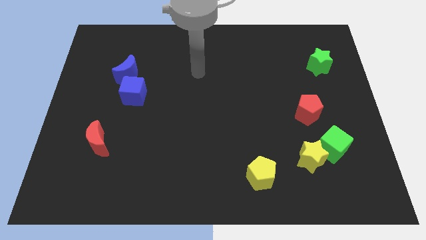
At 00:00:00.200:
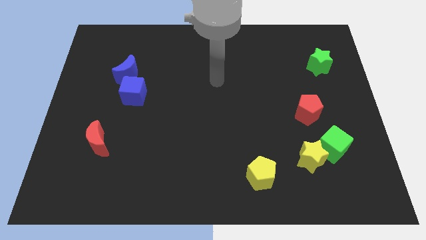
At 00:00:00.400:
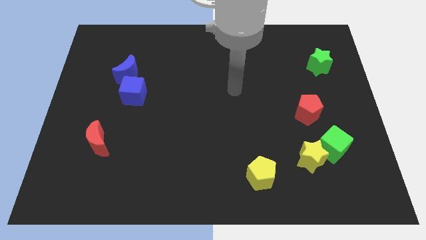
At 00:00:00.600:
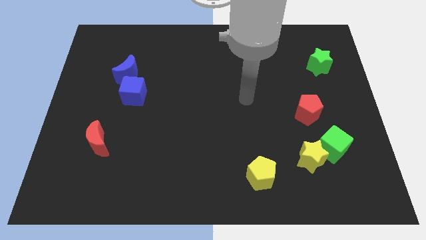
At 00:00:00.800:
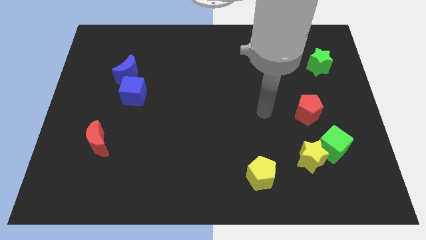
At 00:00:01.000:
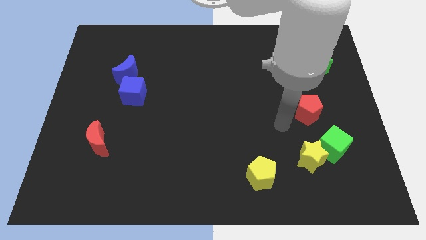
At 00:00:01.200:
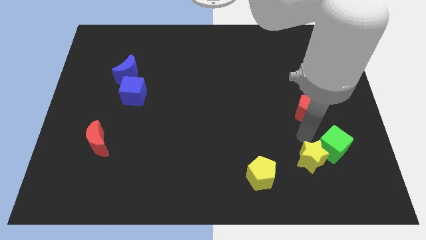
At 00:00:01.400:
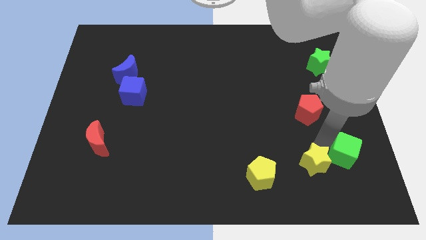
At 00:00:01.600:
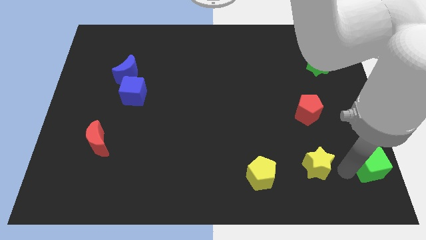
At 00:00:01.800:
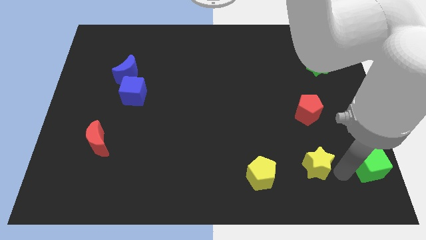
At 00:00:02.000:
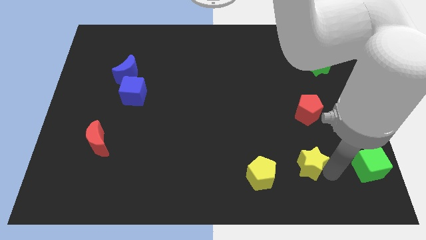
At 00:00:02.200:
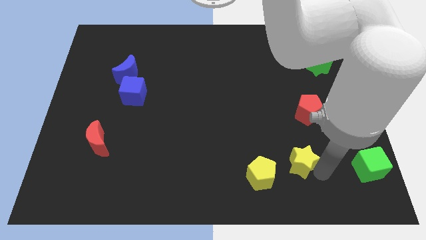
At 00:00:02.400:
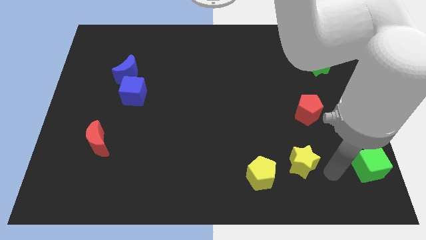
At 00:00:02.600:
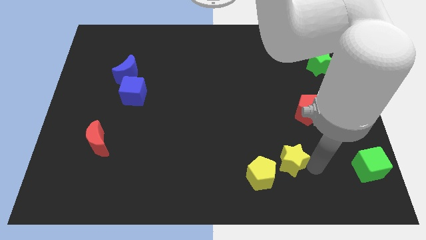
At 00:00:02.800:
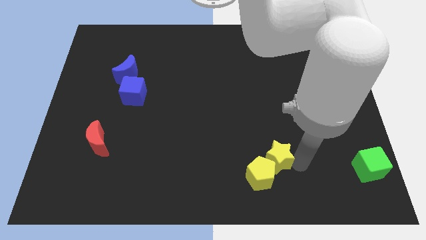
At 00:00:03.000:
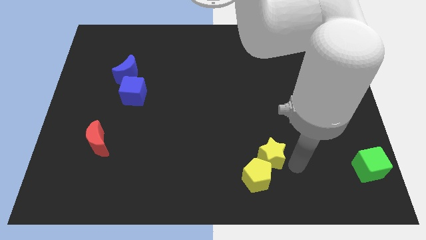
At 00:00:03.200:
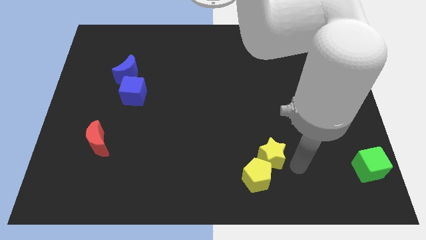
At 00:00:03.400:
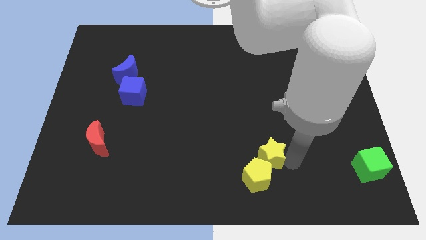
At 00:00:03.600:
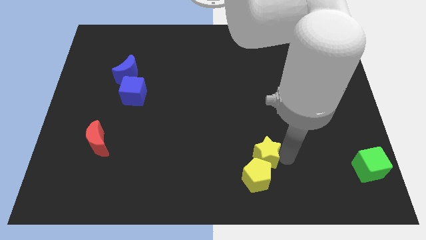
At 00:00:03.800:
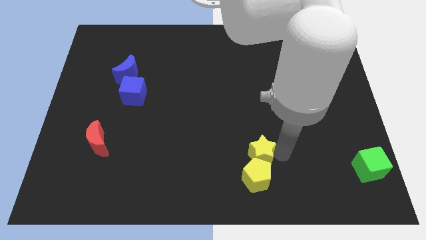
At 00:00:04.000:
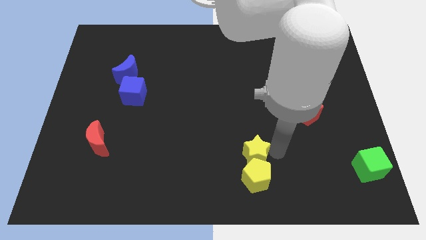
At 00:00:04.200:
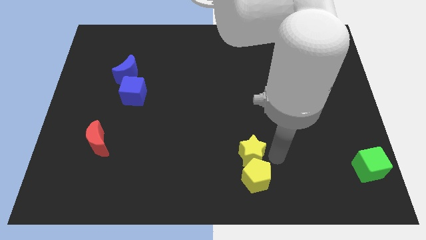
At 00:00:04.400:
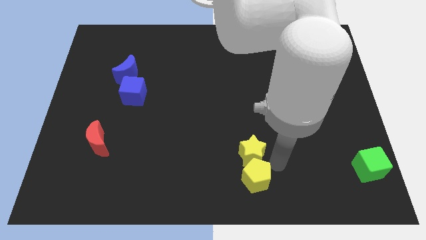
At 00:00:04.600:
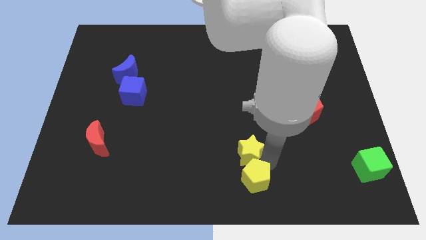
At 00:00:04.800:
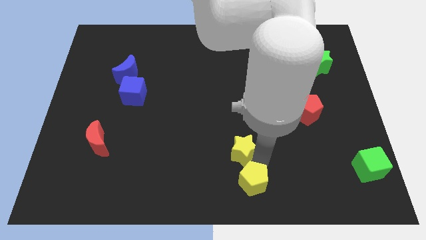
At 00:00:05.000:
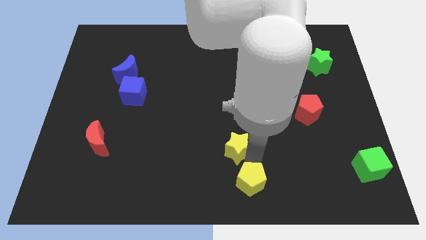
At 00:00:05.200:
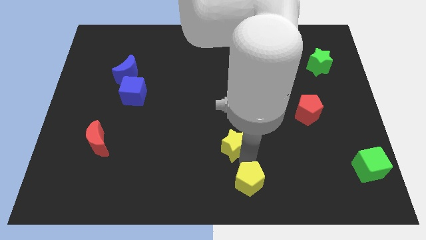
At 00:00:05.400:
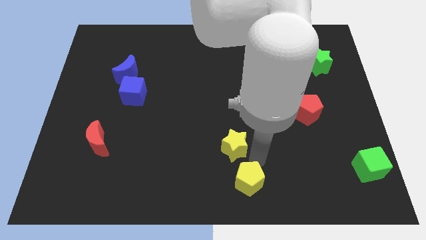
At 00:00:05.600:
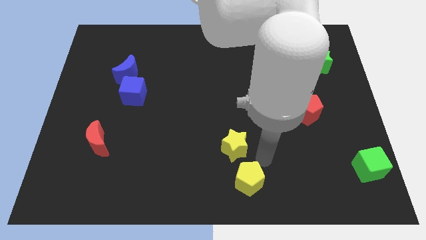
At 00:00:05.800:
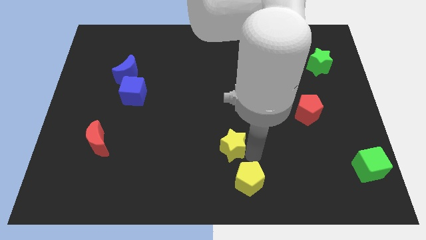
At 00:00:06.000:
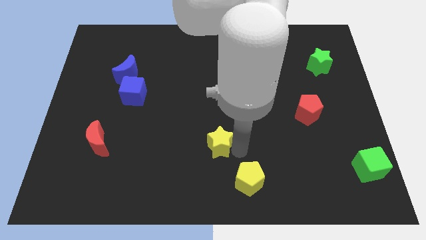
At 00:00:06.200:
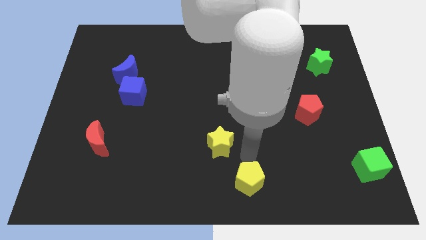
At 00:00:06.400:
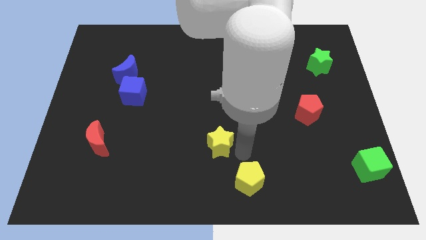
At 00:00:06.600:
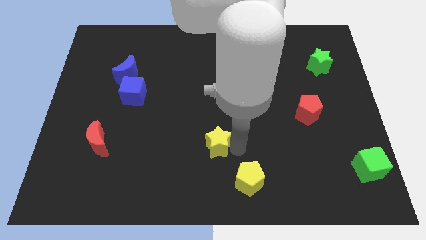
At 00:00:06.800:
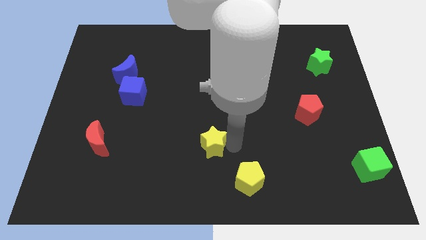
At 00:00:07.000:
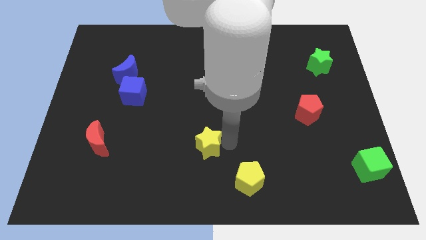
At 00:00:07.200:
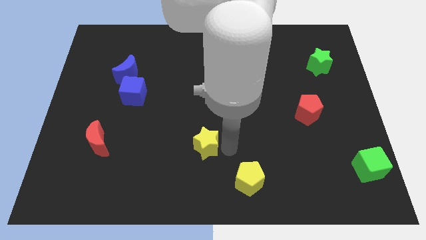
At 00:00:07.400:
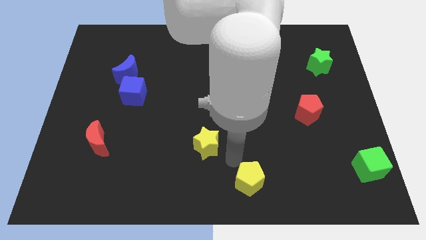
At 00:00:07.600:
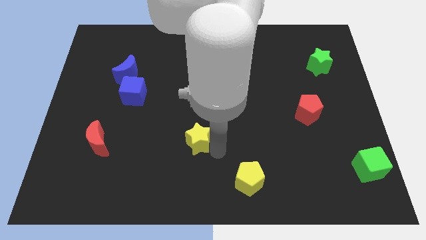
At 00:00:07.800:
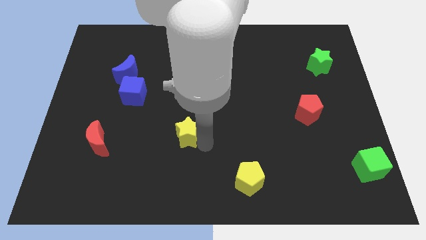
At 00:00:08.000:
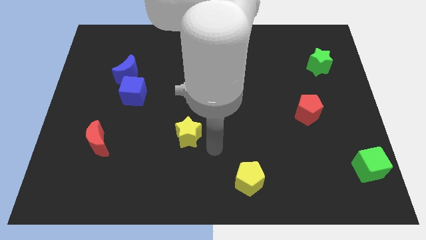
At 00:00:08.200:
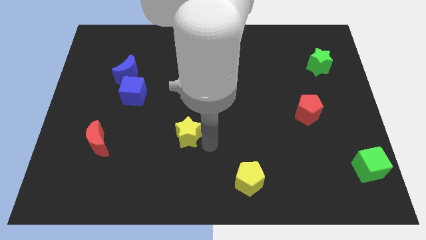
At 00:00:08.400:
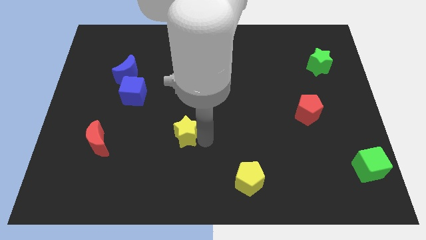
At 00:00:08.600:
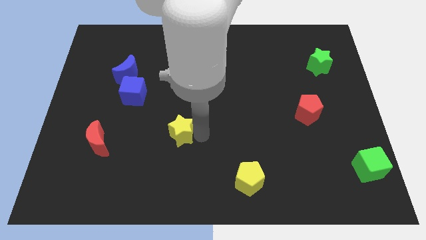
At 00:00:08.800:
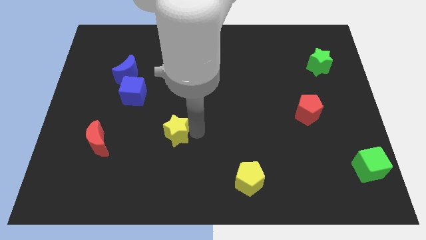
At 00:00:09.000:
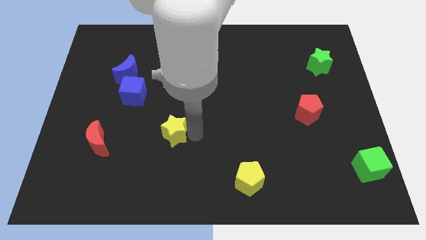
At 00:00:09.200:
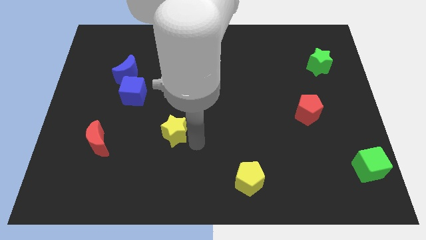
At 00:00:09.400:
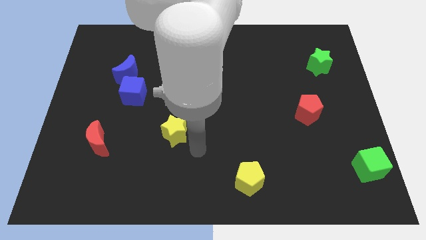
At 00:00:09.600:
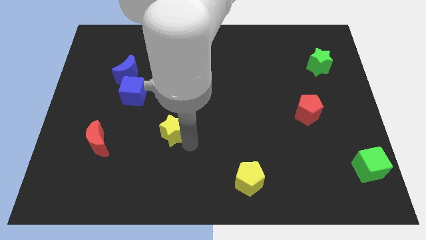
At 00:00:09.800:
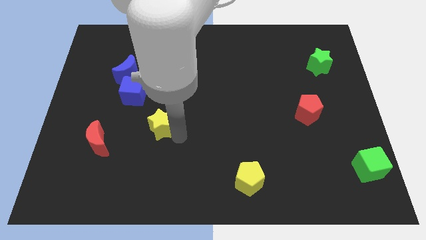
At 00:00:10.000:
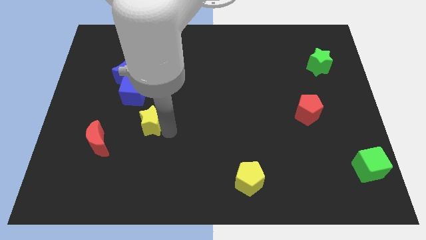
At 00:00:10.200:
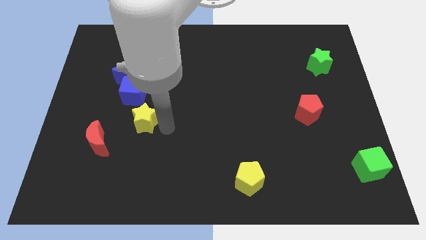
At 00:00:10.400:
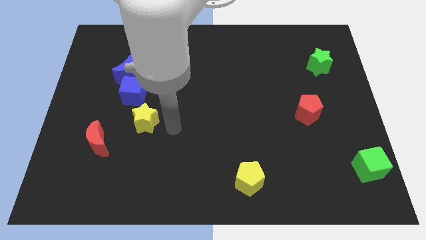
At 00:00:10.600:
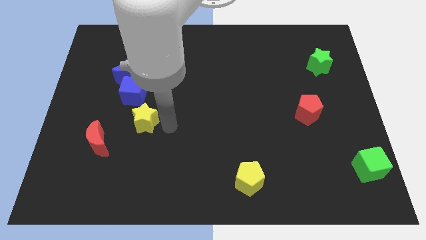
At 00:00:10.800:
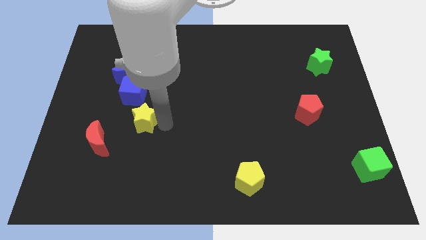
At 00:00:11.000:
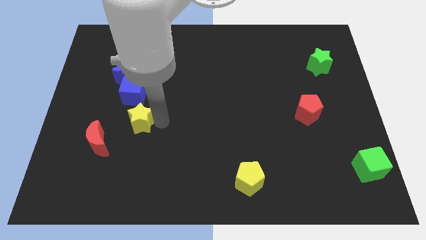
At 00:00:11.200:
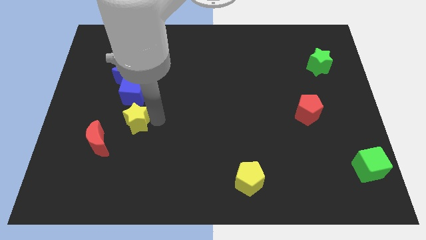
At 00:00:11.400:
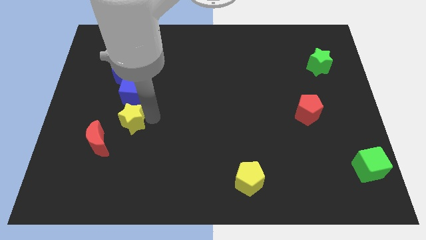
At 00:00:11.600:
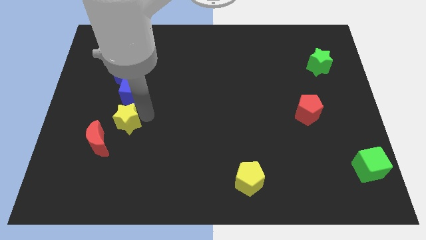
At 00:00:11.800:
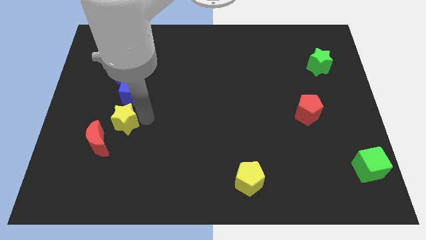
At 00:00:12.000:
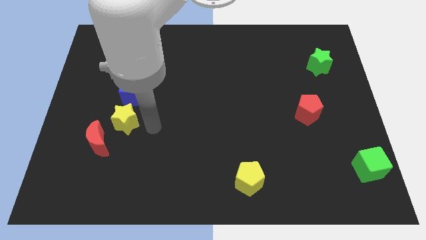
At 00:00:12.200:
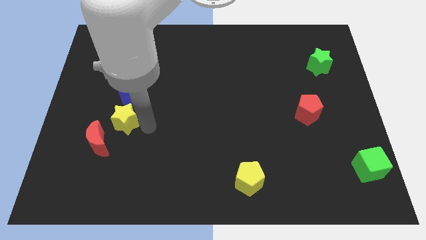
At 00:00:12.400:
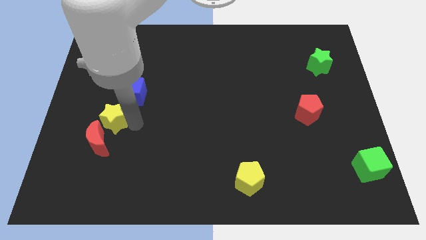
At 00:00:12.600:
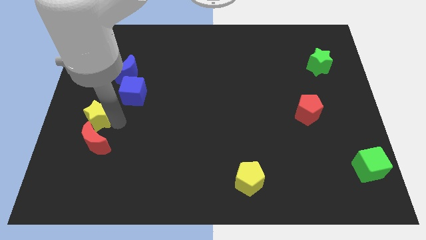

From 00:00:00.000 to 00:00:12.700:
put the yellow star to the center left
